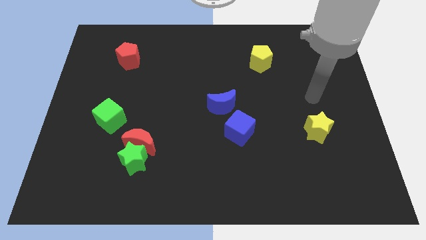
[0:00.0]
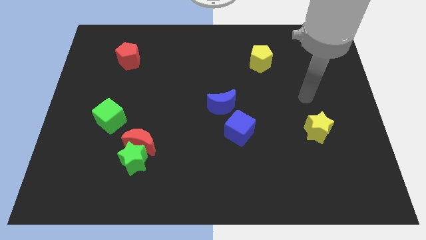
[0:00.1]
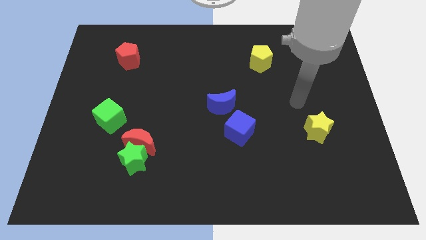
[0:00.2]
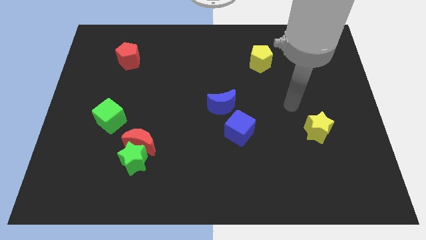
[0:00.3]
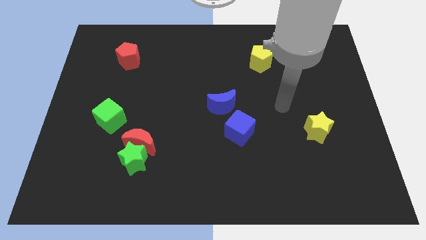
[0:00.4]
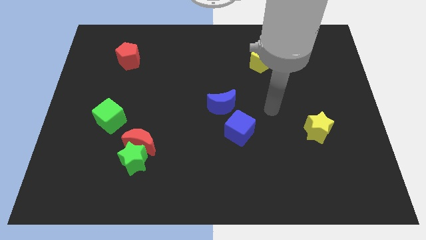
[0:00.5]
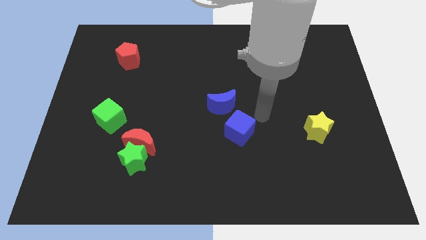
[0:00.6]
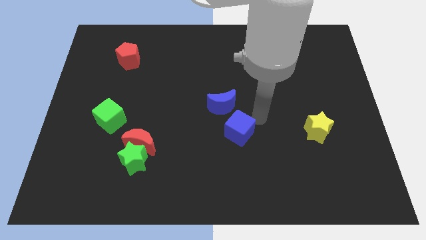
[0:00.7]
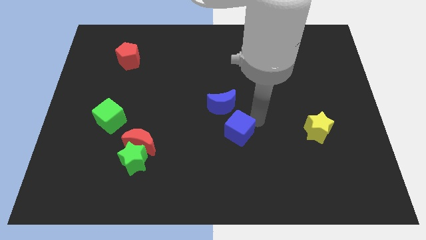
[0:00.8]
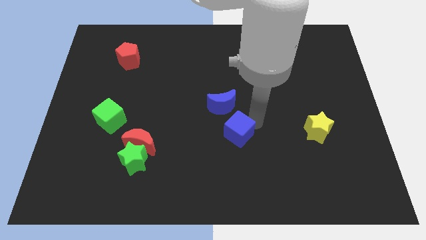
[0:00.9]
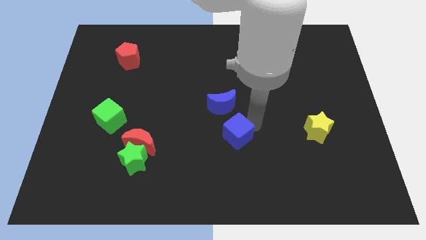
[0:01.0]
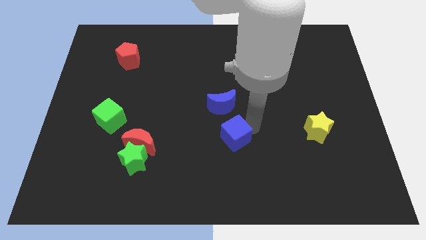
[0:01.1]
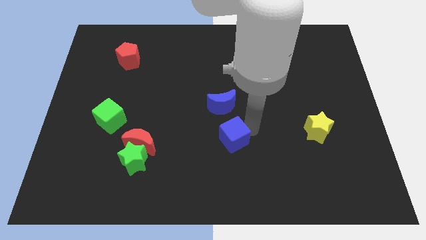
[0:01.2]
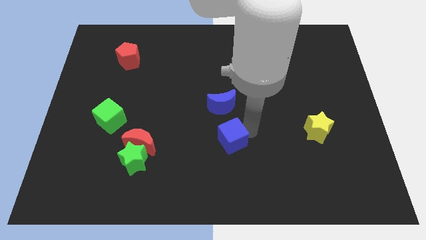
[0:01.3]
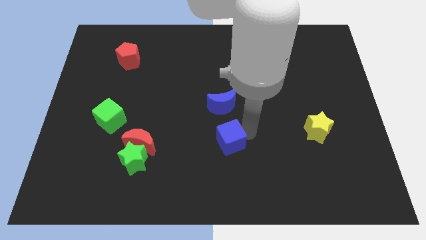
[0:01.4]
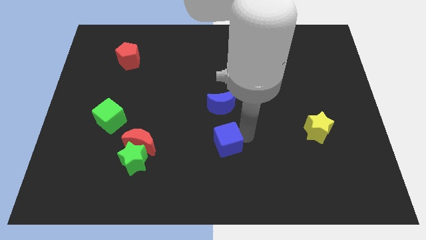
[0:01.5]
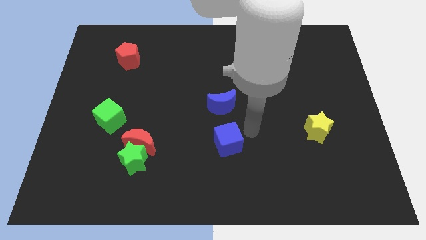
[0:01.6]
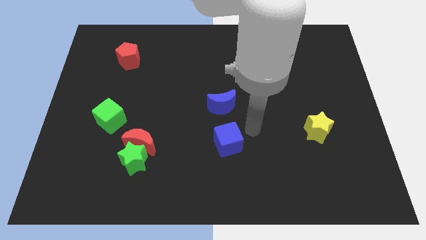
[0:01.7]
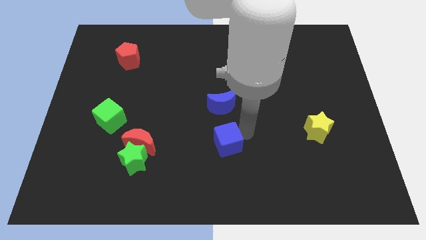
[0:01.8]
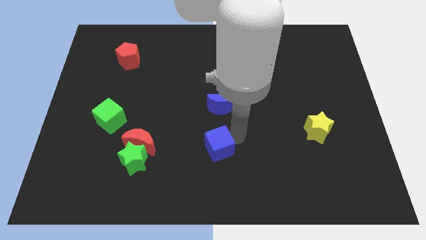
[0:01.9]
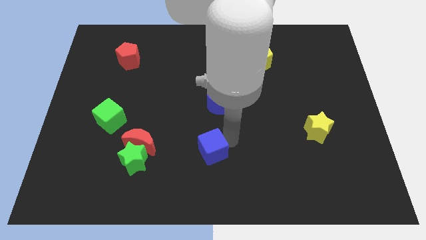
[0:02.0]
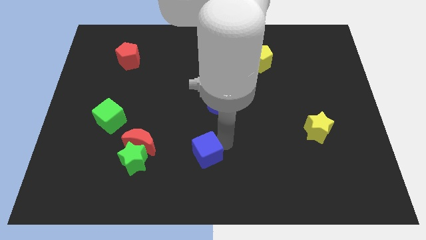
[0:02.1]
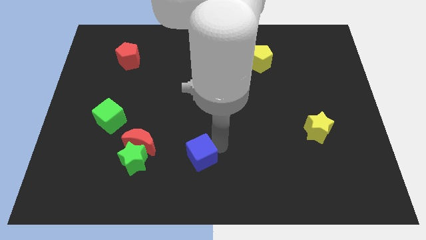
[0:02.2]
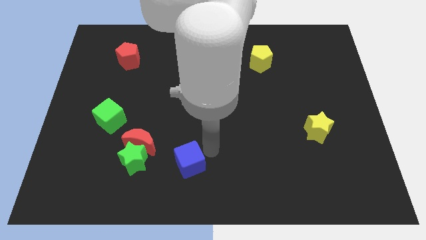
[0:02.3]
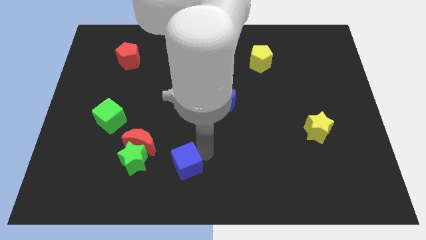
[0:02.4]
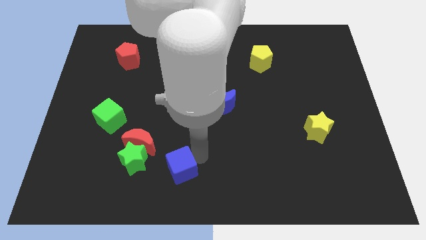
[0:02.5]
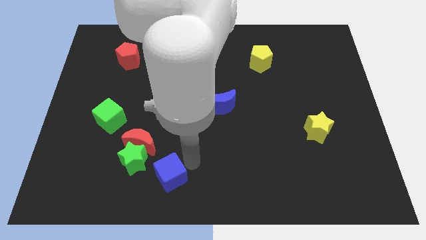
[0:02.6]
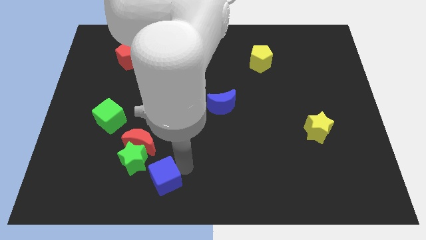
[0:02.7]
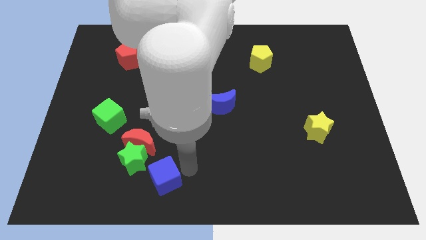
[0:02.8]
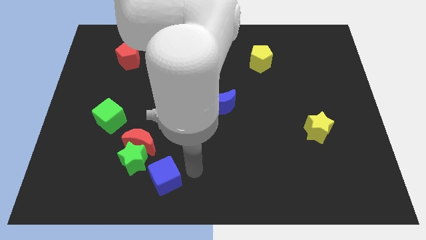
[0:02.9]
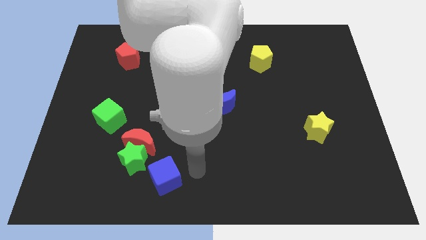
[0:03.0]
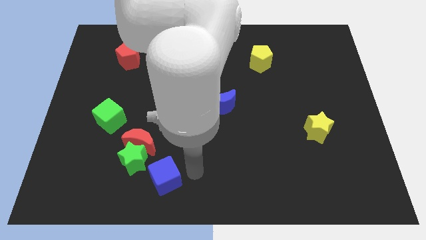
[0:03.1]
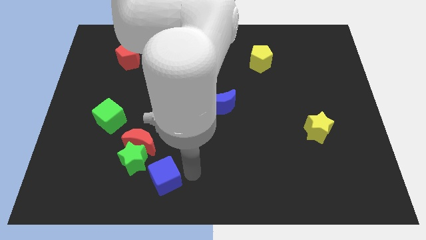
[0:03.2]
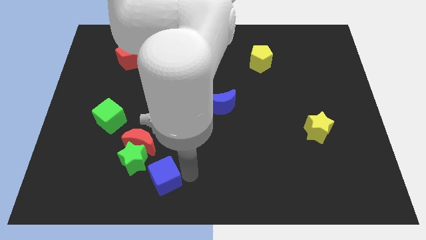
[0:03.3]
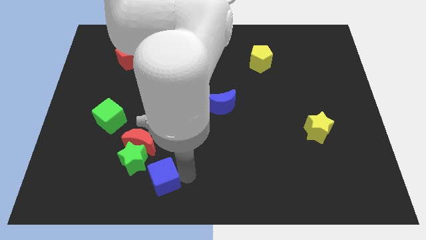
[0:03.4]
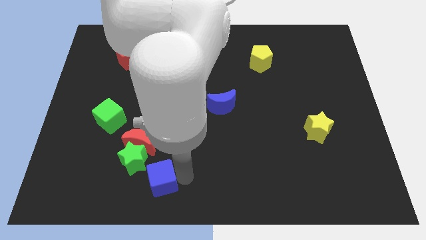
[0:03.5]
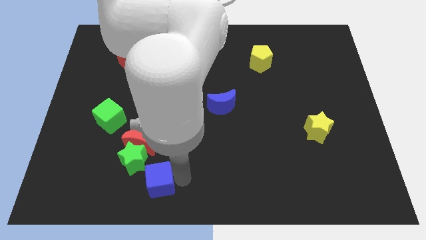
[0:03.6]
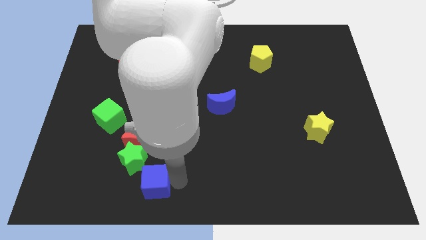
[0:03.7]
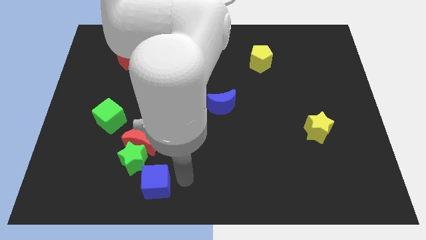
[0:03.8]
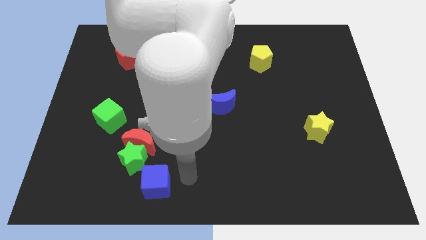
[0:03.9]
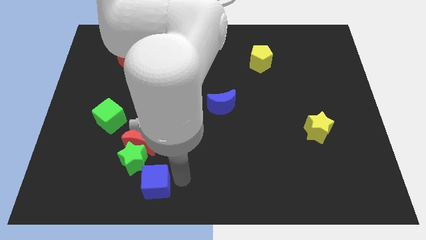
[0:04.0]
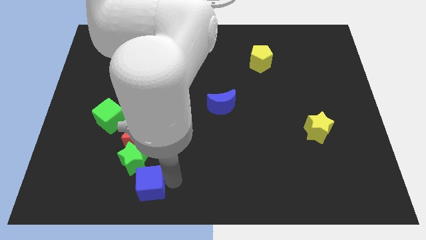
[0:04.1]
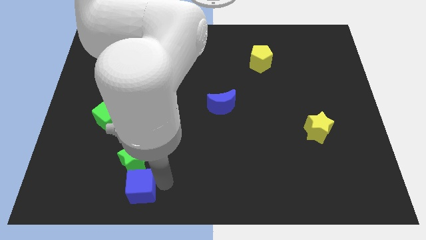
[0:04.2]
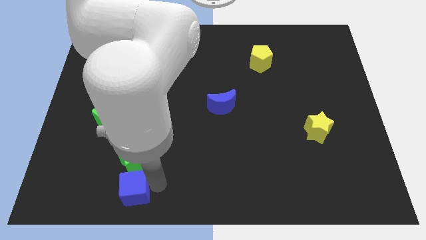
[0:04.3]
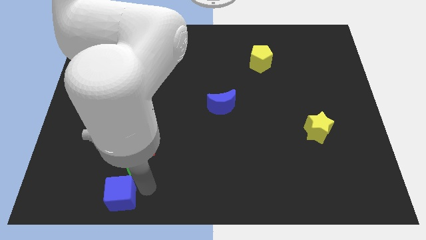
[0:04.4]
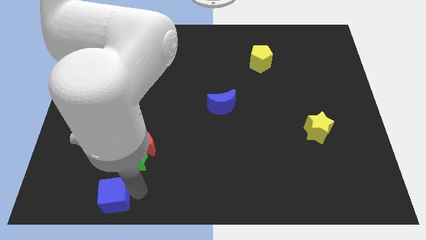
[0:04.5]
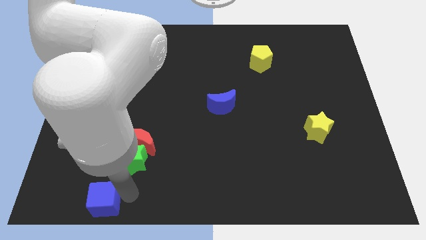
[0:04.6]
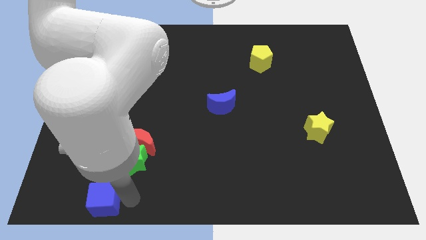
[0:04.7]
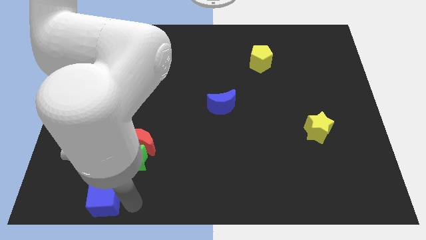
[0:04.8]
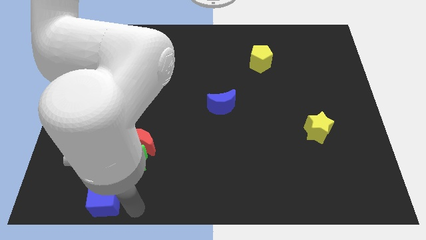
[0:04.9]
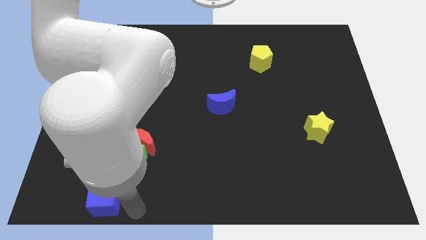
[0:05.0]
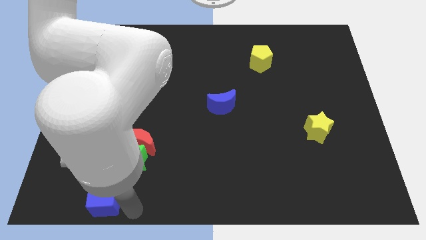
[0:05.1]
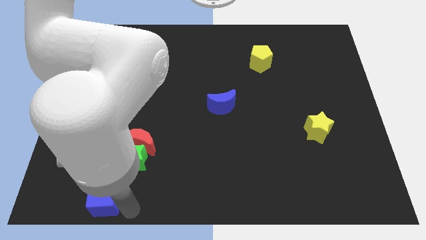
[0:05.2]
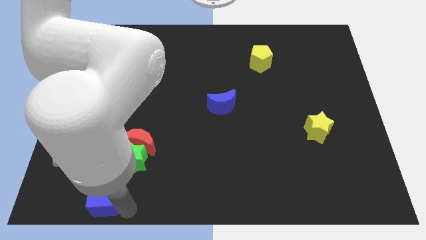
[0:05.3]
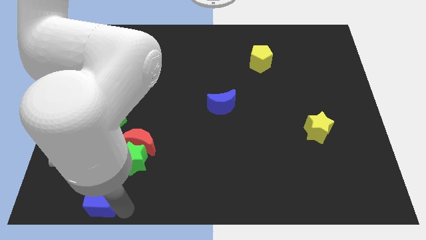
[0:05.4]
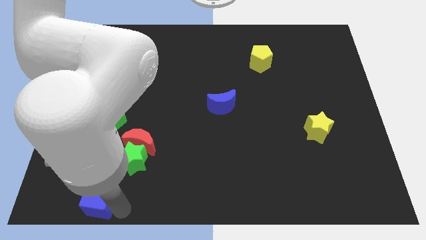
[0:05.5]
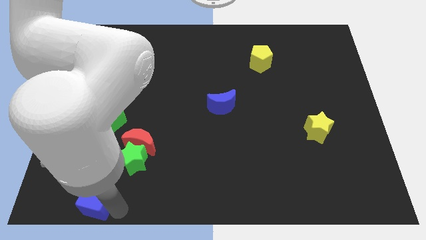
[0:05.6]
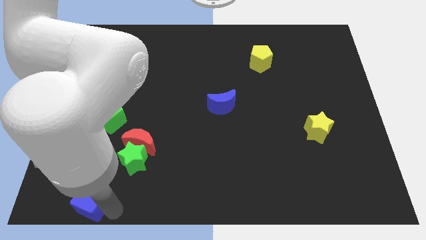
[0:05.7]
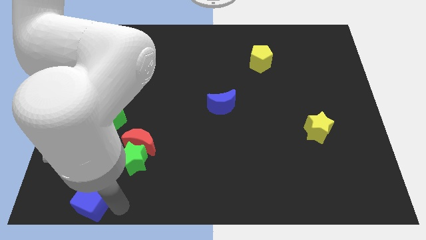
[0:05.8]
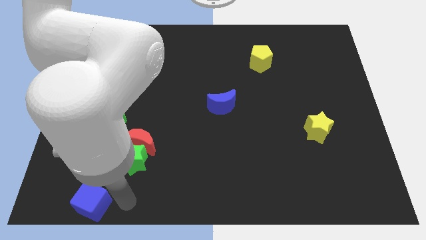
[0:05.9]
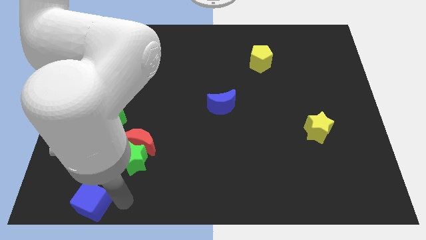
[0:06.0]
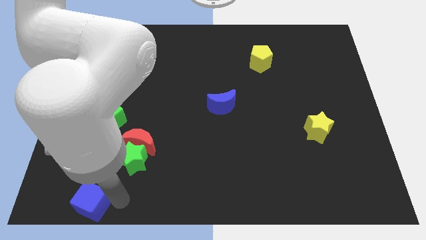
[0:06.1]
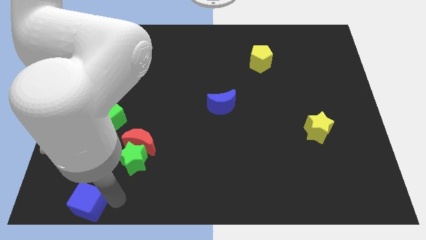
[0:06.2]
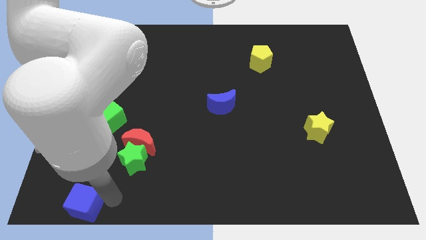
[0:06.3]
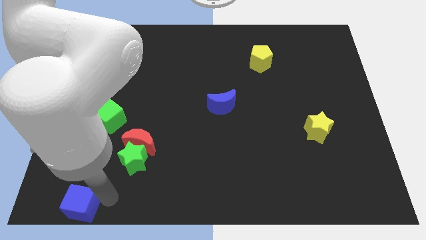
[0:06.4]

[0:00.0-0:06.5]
move the blue cube to the bottom left corner
